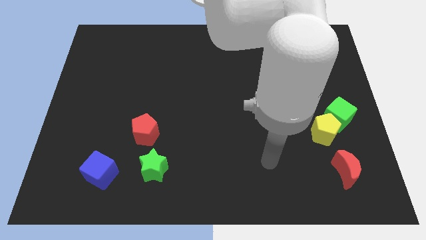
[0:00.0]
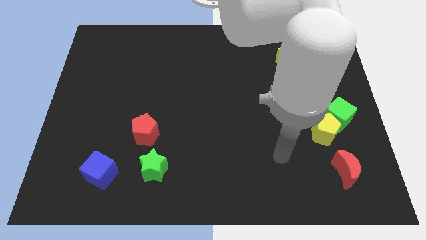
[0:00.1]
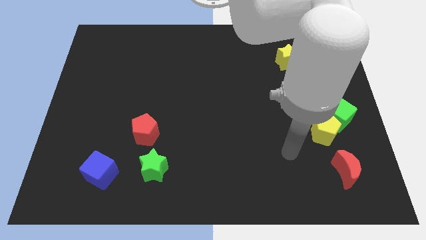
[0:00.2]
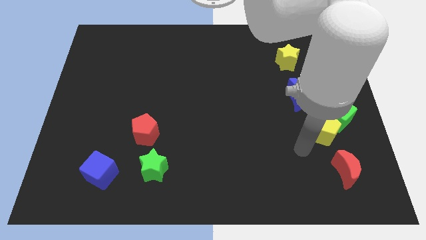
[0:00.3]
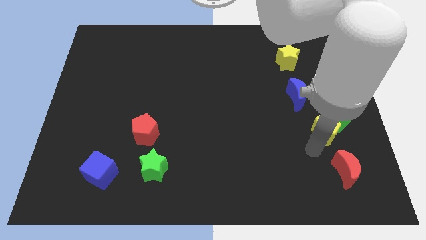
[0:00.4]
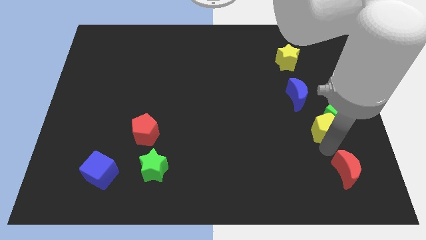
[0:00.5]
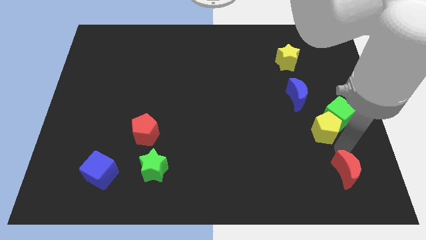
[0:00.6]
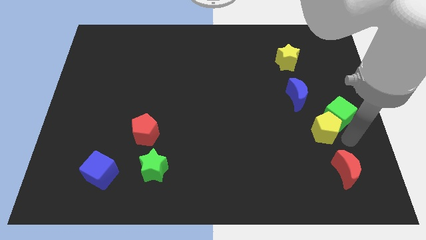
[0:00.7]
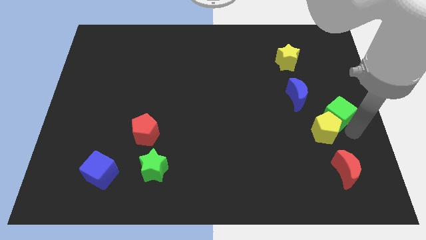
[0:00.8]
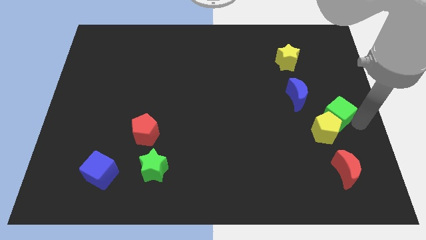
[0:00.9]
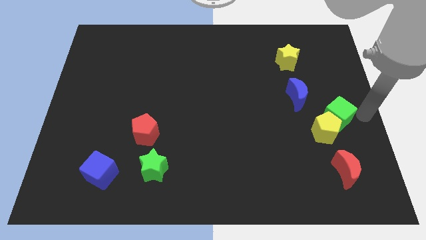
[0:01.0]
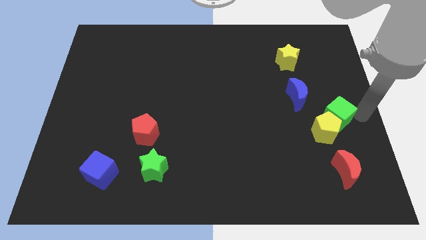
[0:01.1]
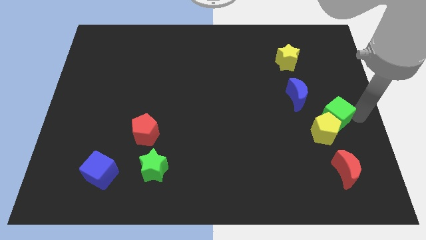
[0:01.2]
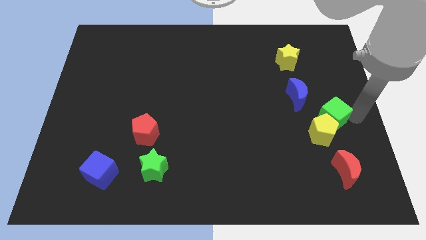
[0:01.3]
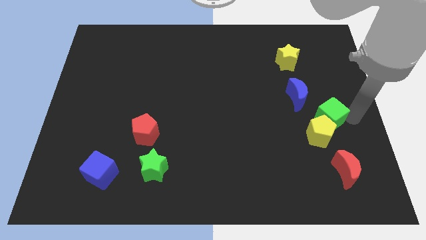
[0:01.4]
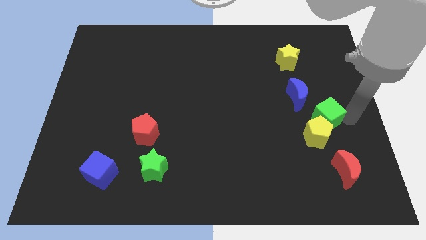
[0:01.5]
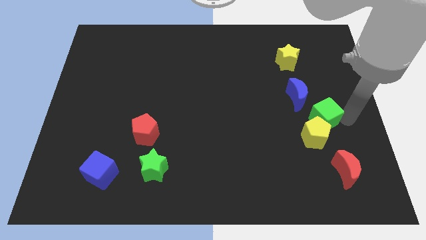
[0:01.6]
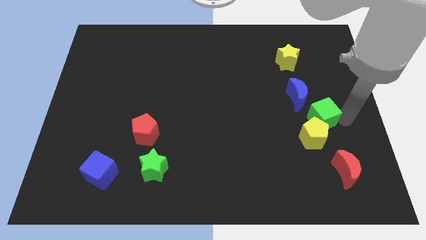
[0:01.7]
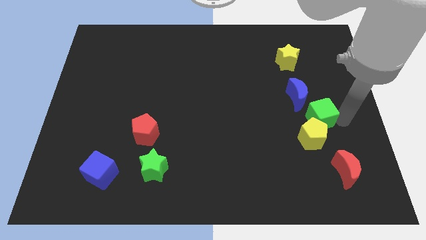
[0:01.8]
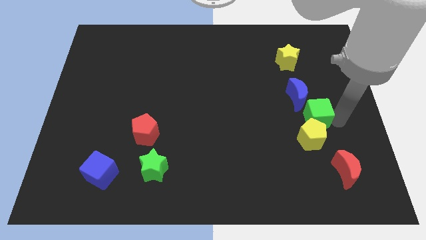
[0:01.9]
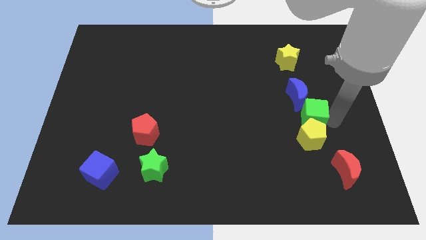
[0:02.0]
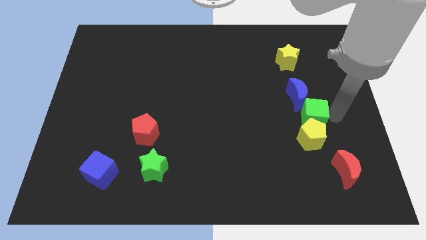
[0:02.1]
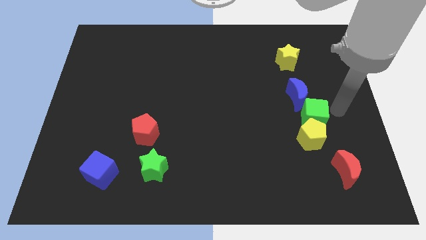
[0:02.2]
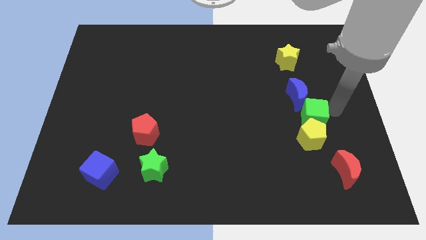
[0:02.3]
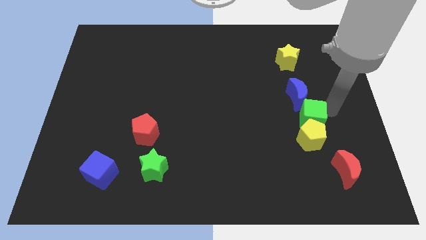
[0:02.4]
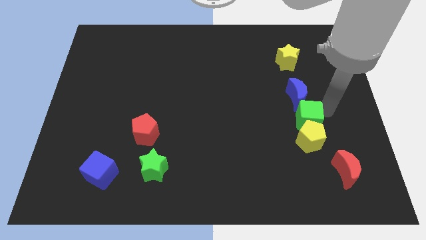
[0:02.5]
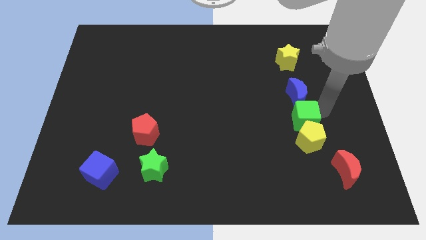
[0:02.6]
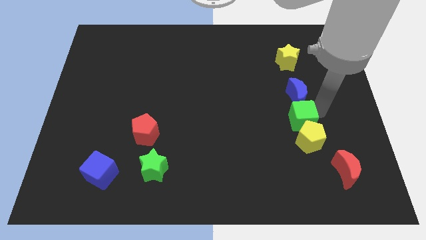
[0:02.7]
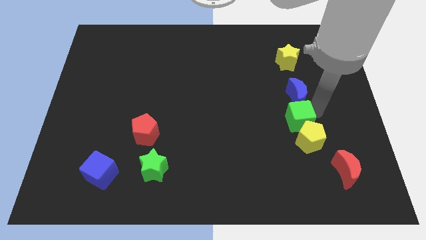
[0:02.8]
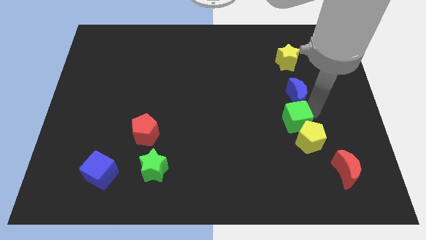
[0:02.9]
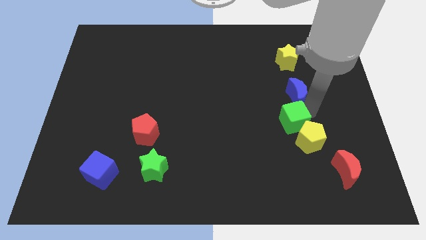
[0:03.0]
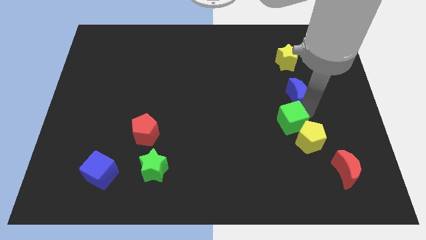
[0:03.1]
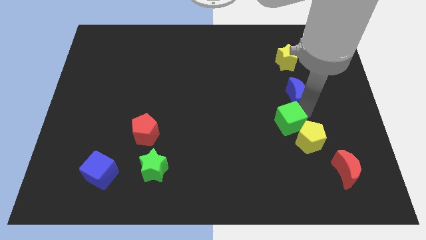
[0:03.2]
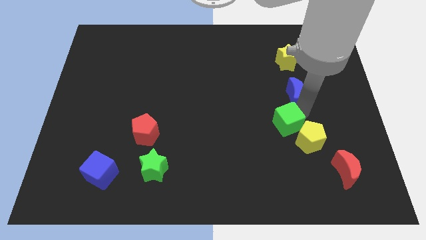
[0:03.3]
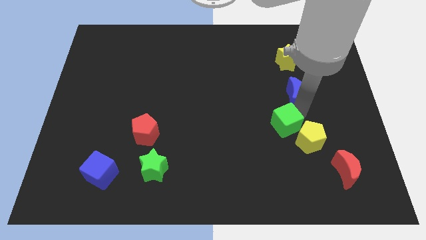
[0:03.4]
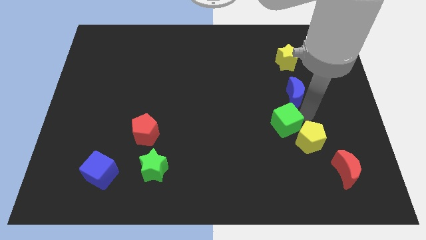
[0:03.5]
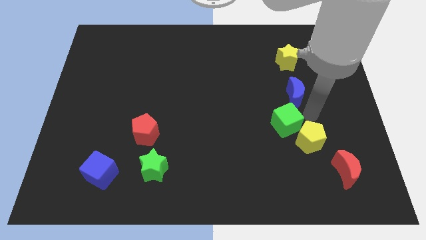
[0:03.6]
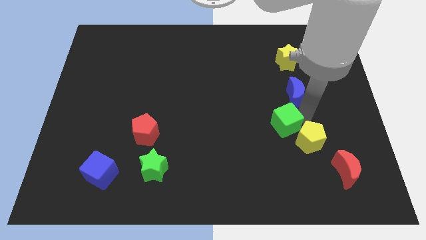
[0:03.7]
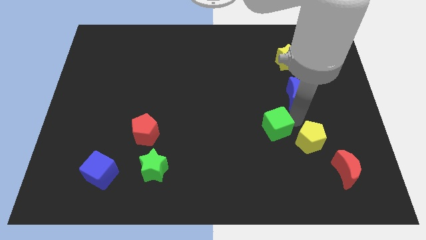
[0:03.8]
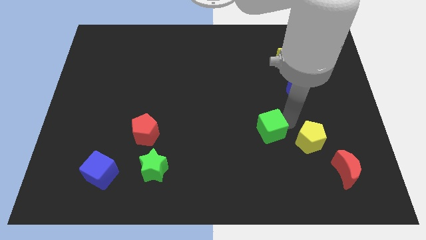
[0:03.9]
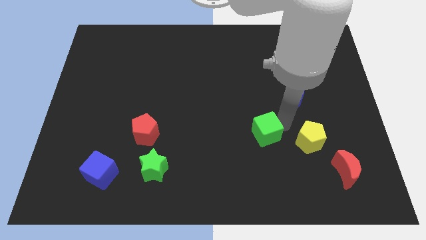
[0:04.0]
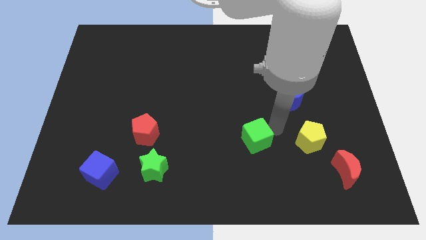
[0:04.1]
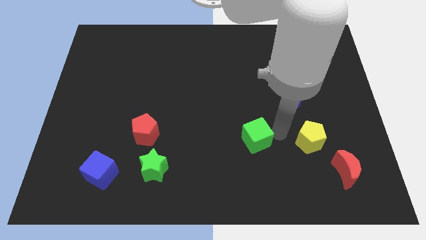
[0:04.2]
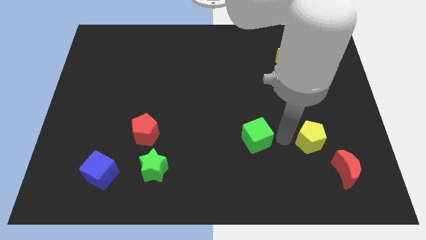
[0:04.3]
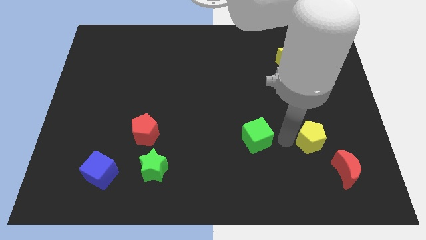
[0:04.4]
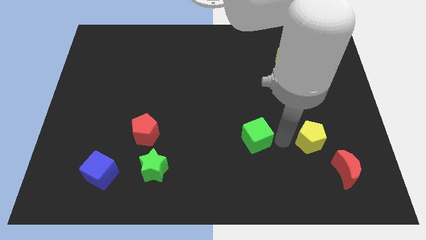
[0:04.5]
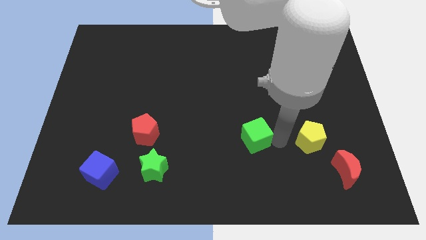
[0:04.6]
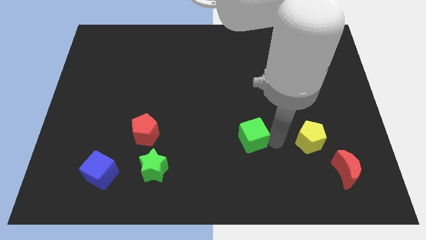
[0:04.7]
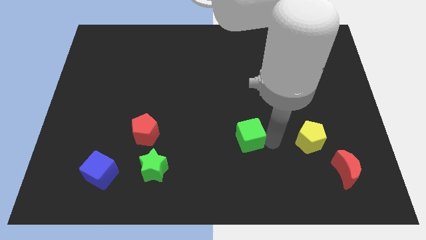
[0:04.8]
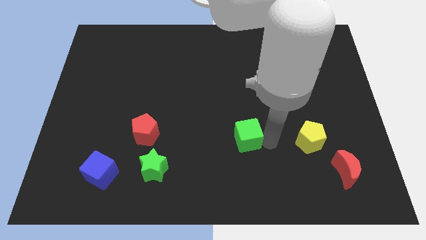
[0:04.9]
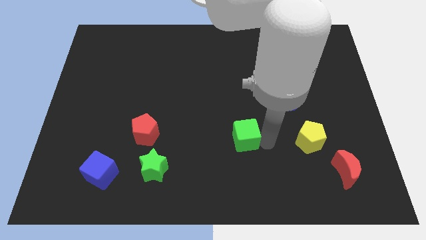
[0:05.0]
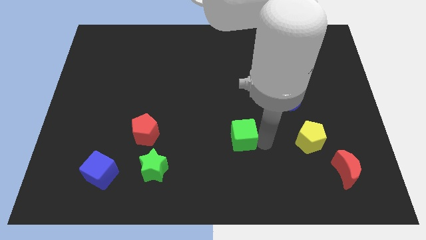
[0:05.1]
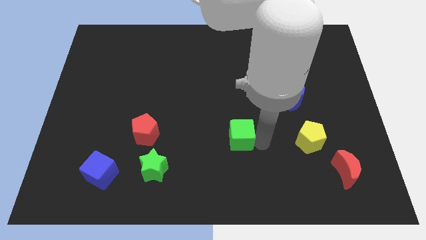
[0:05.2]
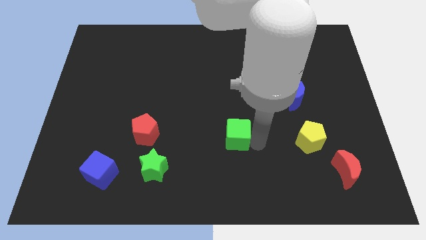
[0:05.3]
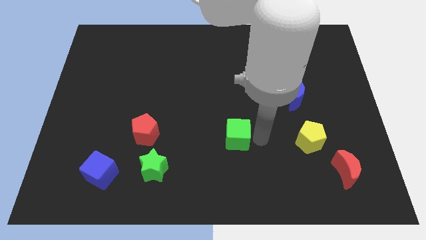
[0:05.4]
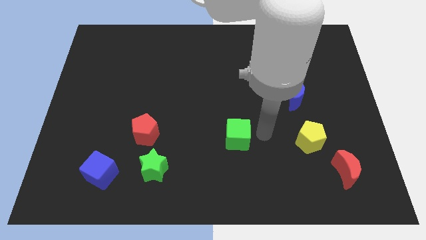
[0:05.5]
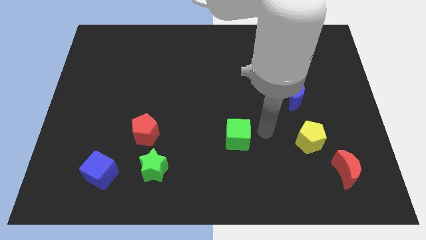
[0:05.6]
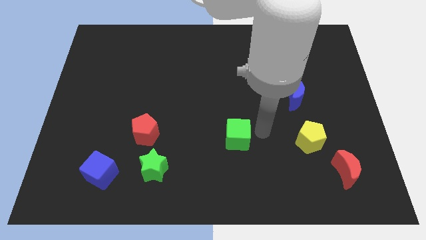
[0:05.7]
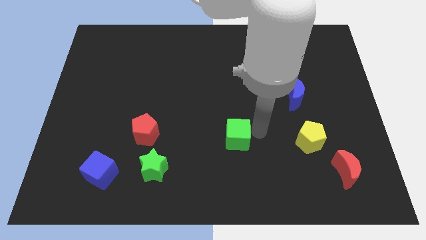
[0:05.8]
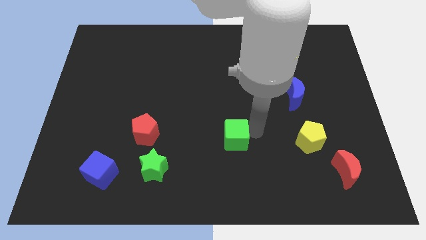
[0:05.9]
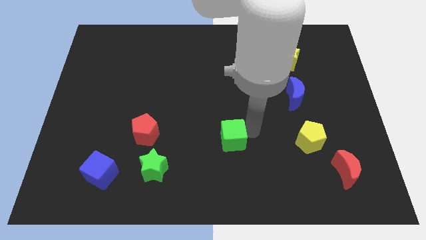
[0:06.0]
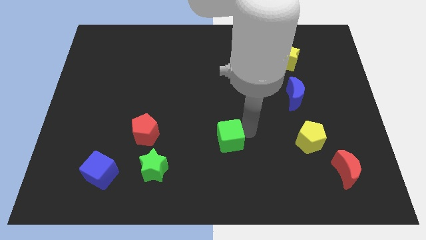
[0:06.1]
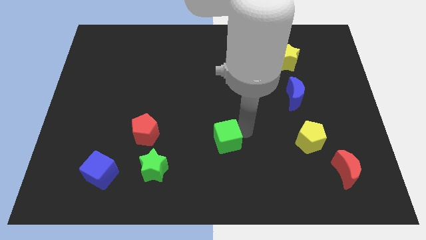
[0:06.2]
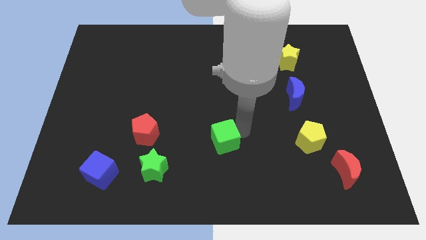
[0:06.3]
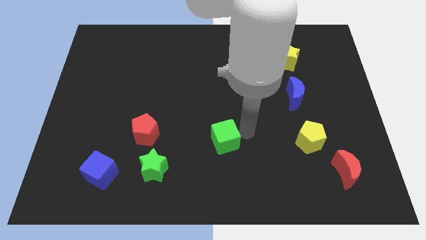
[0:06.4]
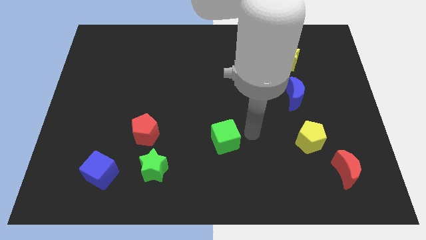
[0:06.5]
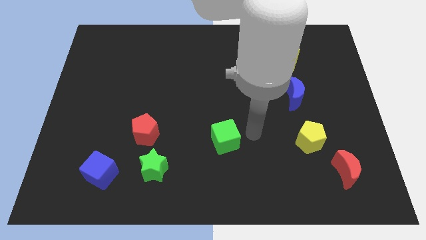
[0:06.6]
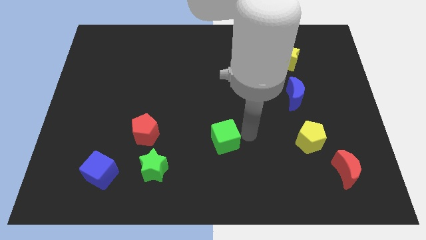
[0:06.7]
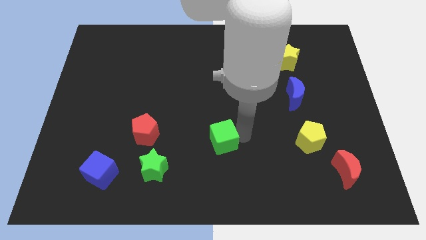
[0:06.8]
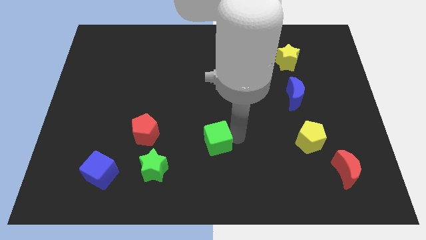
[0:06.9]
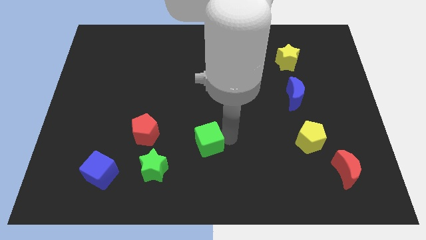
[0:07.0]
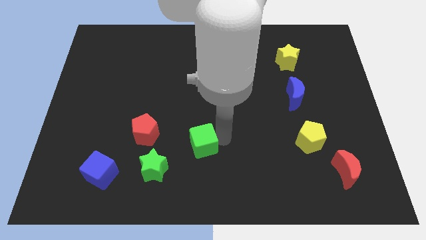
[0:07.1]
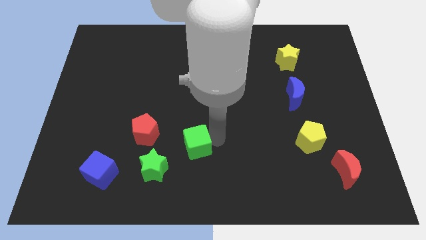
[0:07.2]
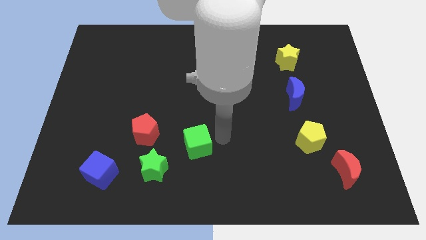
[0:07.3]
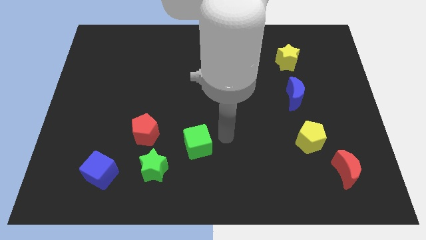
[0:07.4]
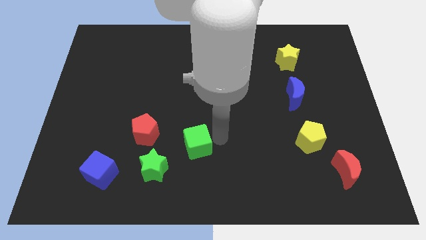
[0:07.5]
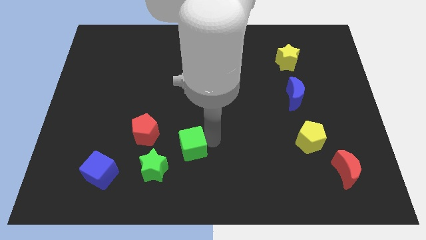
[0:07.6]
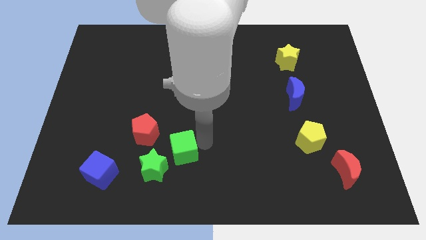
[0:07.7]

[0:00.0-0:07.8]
move the green cube to the bottom right of the red pentagon
